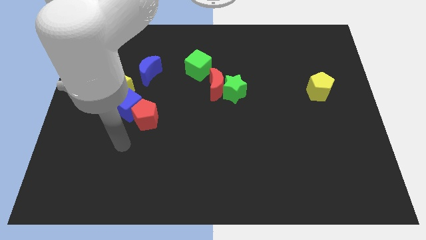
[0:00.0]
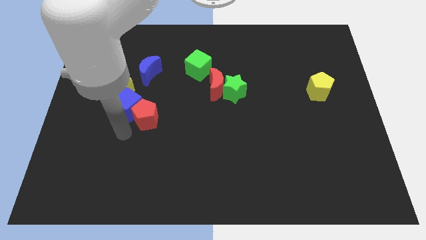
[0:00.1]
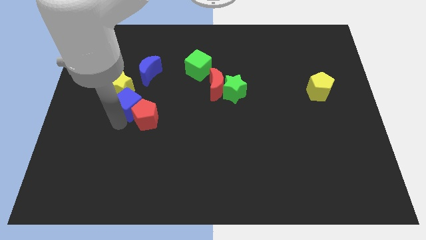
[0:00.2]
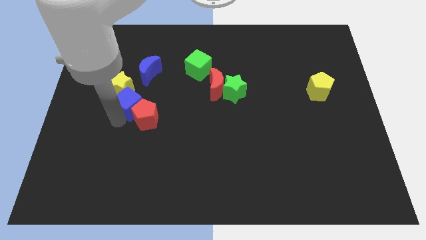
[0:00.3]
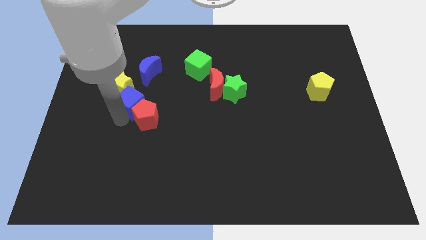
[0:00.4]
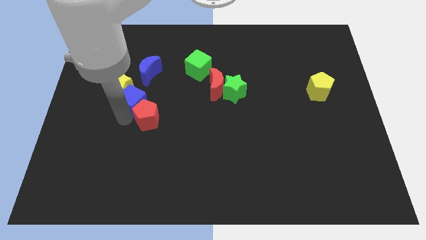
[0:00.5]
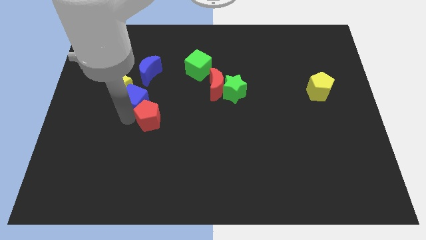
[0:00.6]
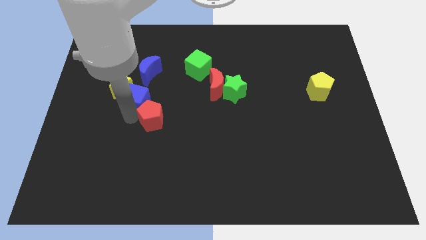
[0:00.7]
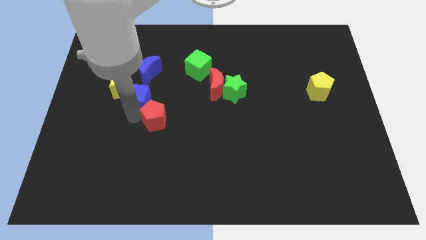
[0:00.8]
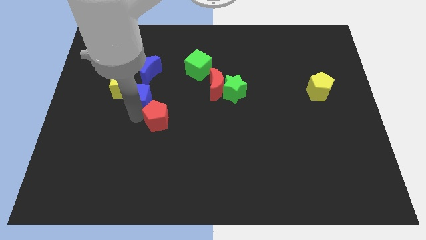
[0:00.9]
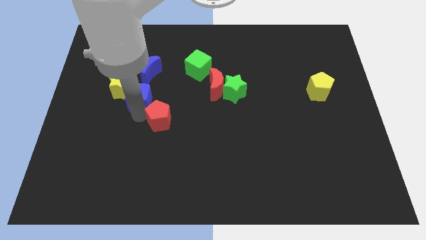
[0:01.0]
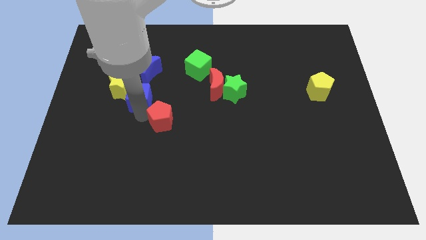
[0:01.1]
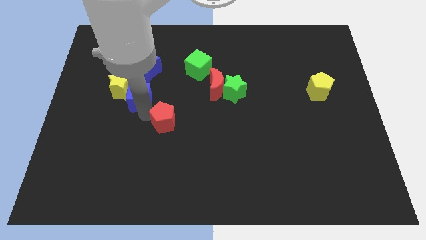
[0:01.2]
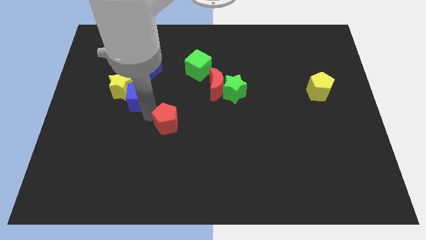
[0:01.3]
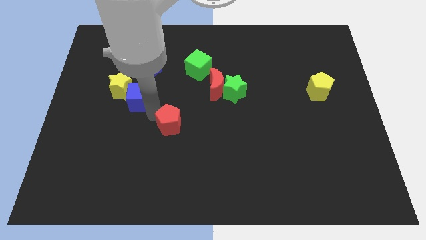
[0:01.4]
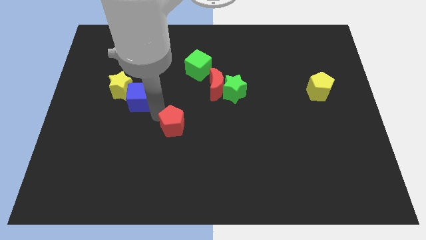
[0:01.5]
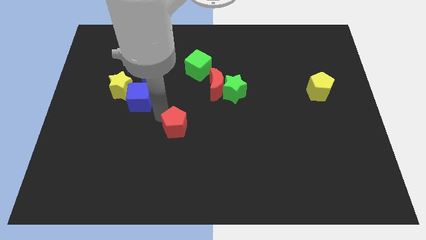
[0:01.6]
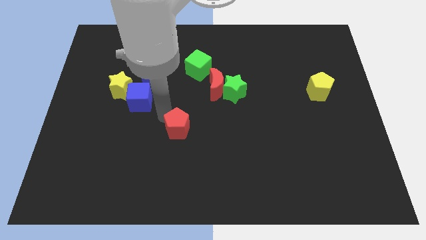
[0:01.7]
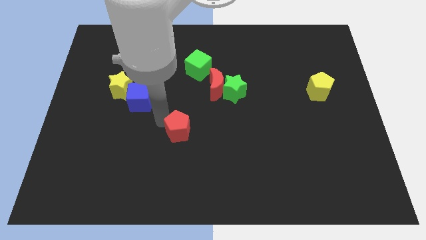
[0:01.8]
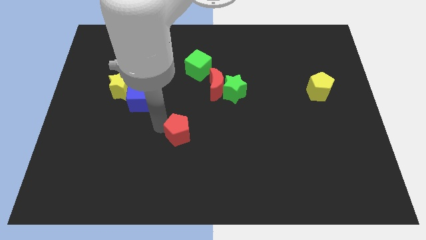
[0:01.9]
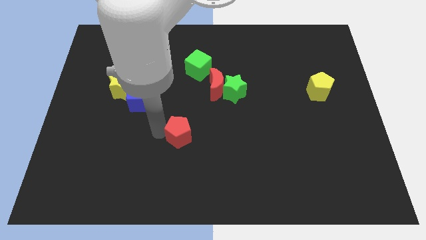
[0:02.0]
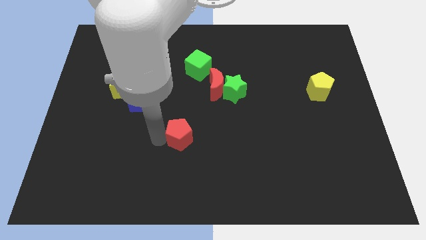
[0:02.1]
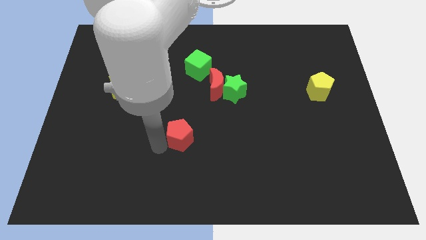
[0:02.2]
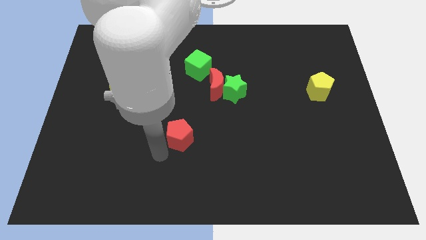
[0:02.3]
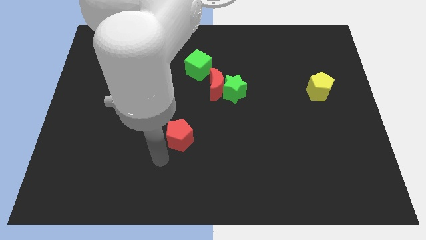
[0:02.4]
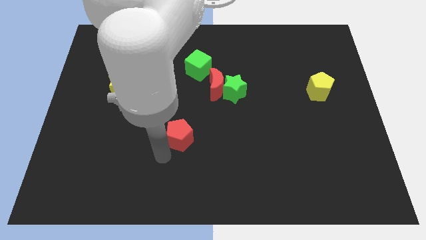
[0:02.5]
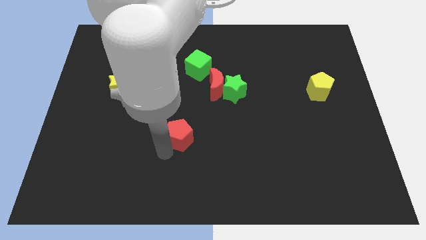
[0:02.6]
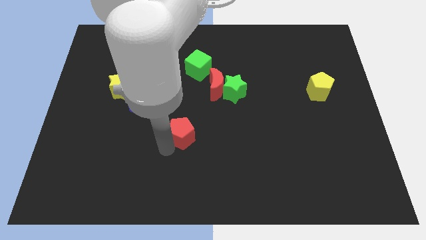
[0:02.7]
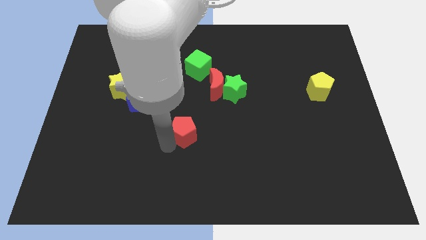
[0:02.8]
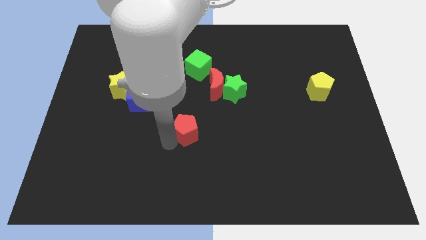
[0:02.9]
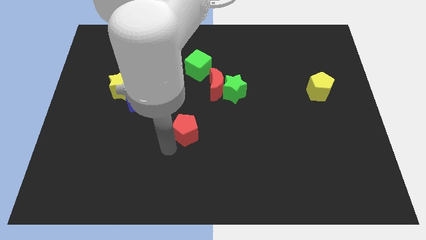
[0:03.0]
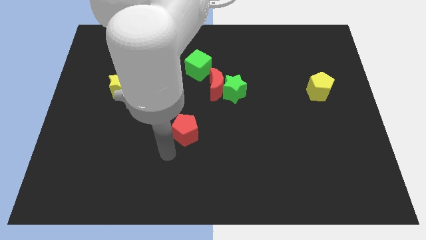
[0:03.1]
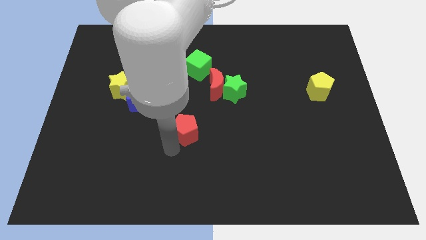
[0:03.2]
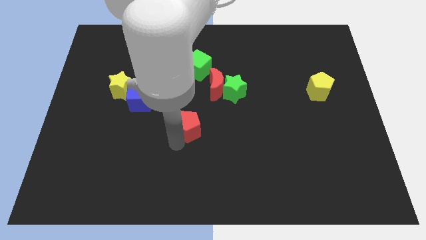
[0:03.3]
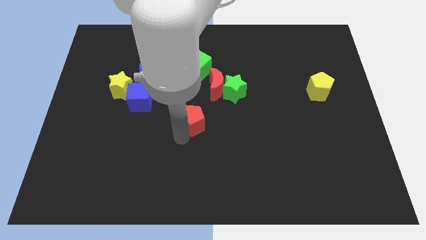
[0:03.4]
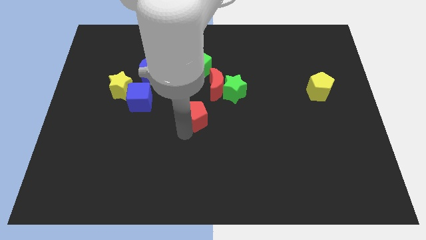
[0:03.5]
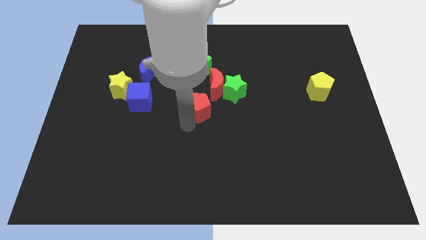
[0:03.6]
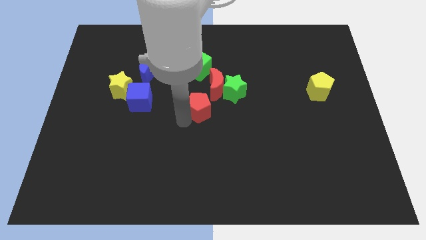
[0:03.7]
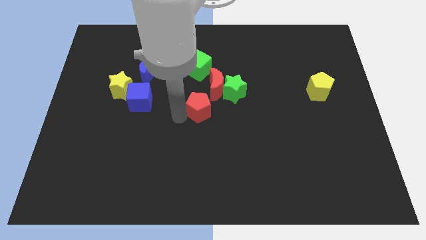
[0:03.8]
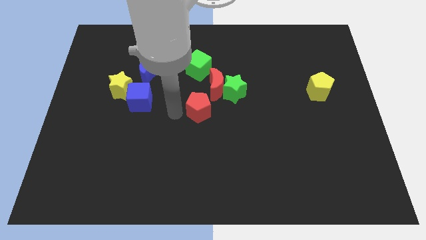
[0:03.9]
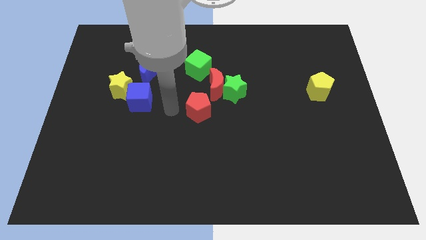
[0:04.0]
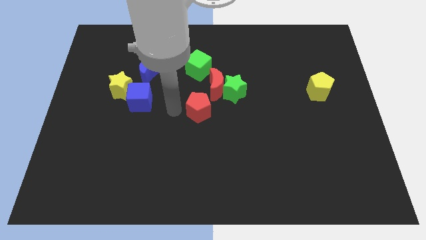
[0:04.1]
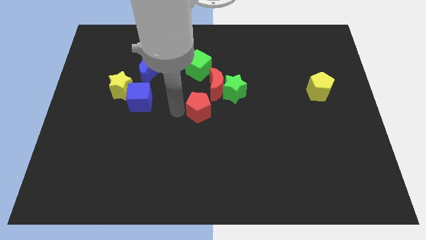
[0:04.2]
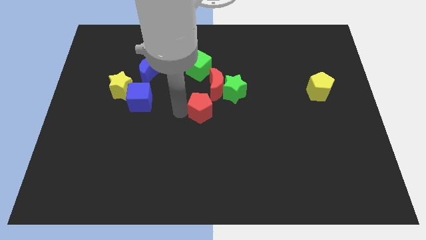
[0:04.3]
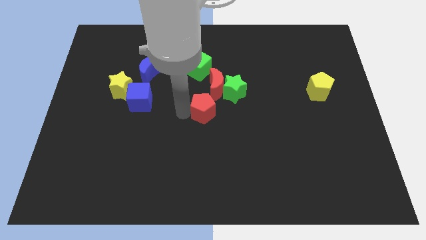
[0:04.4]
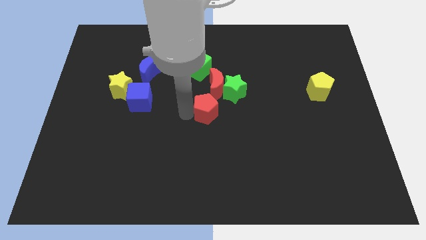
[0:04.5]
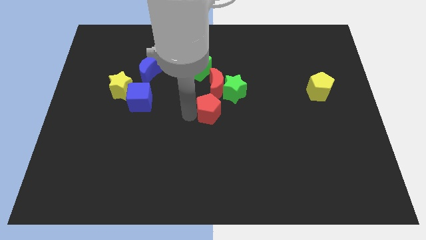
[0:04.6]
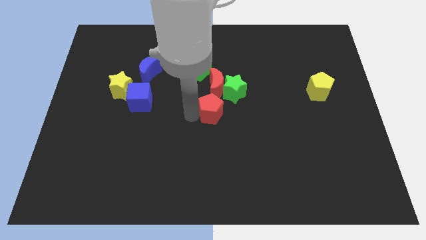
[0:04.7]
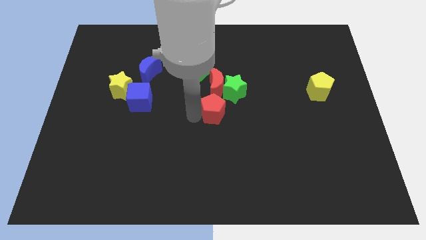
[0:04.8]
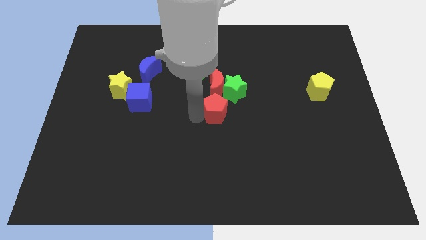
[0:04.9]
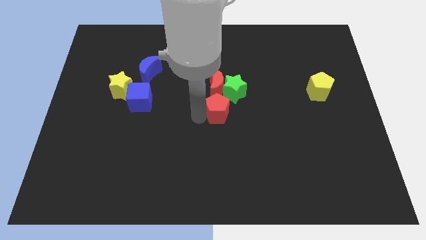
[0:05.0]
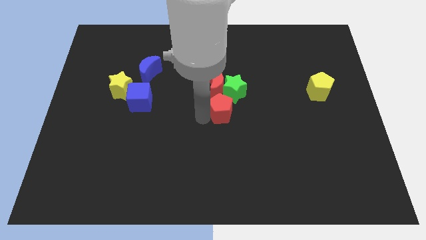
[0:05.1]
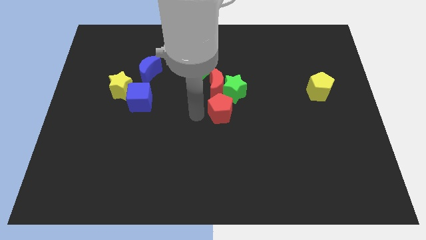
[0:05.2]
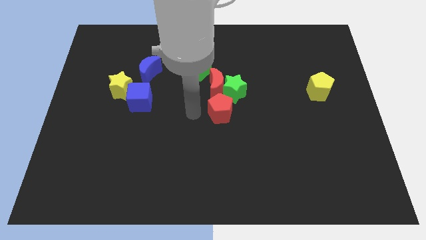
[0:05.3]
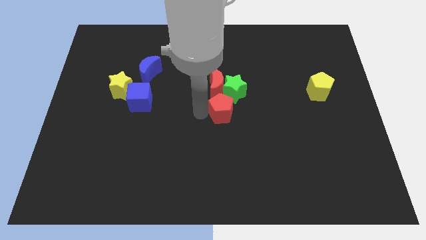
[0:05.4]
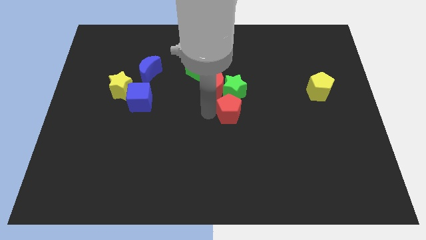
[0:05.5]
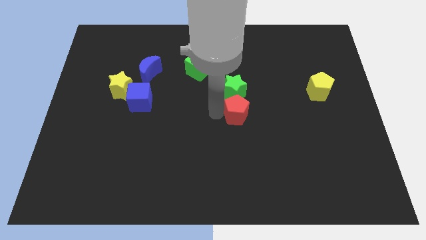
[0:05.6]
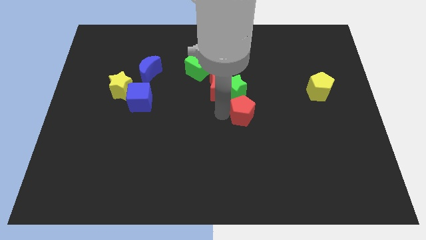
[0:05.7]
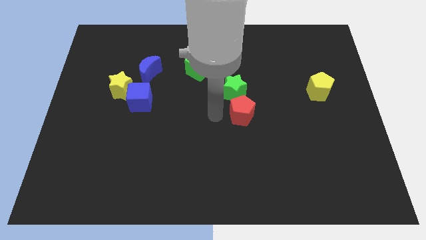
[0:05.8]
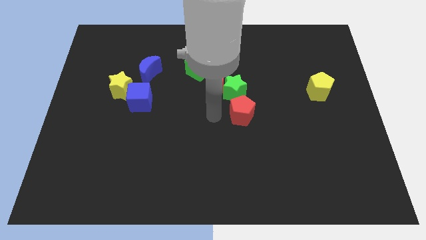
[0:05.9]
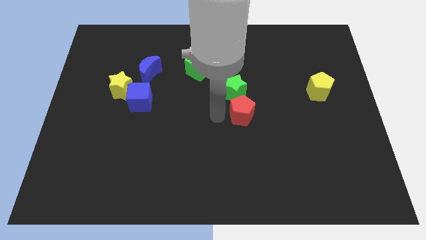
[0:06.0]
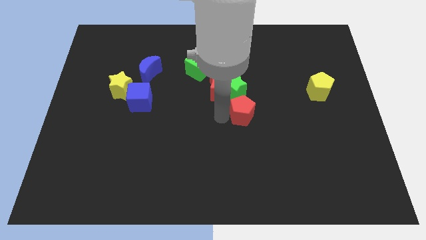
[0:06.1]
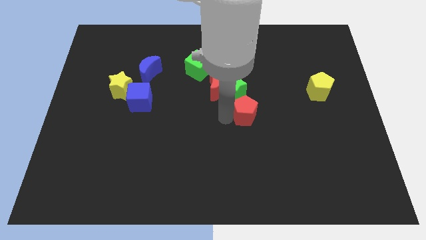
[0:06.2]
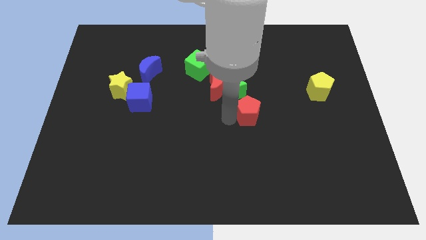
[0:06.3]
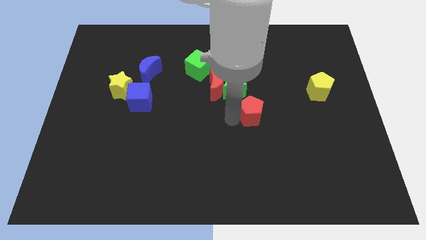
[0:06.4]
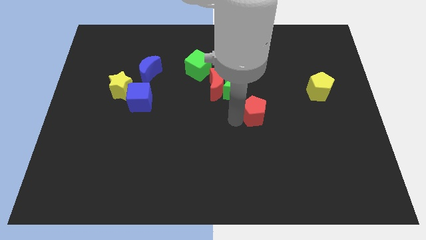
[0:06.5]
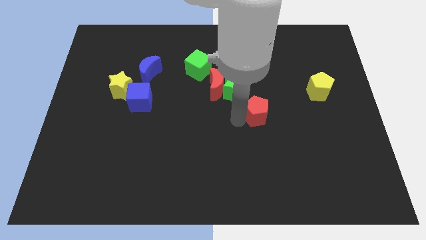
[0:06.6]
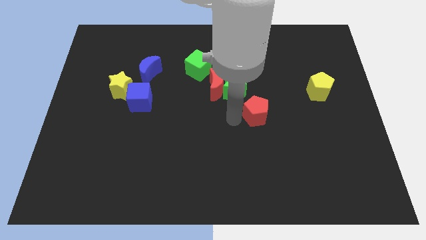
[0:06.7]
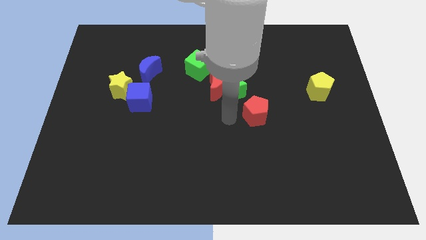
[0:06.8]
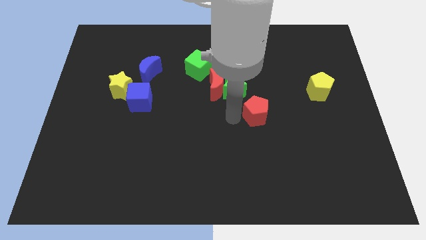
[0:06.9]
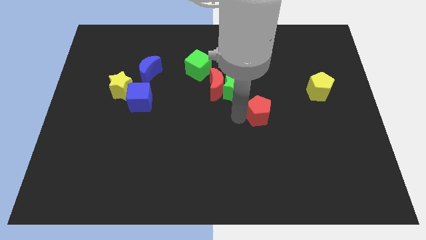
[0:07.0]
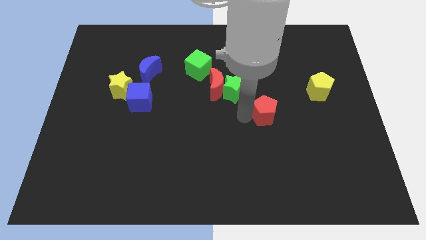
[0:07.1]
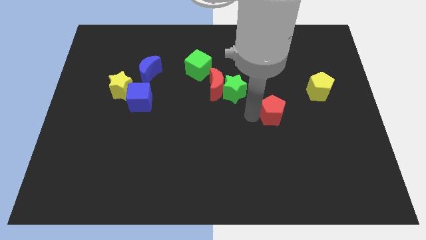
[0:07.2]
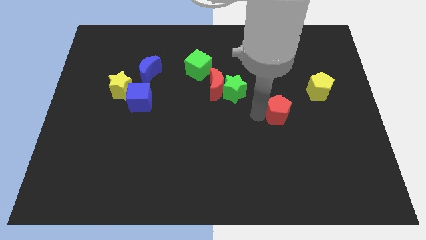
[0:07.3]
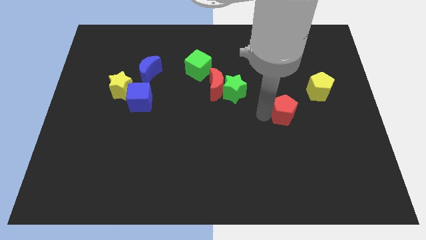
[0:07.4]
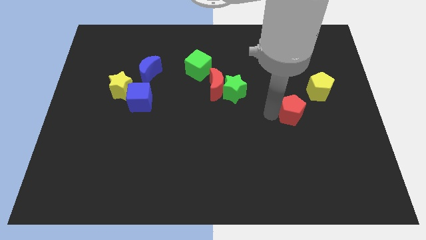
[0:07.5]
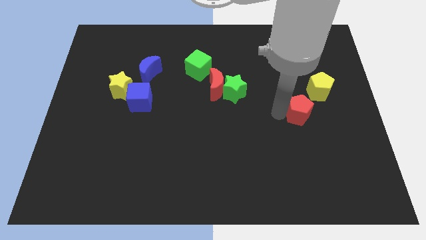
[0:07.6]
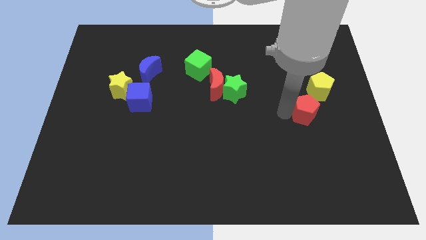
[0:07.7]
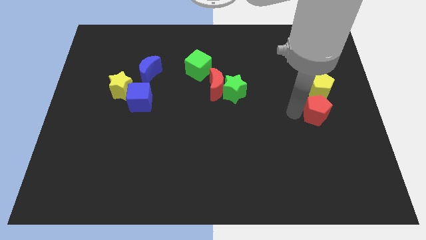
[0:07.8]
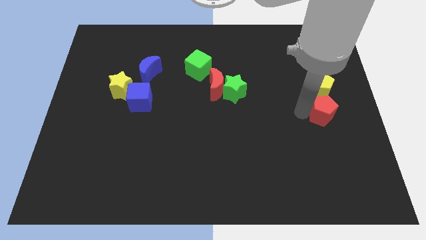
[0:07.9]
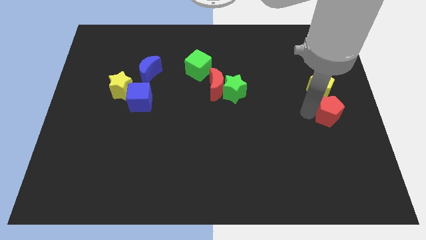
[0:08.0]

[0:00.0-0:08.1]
move the red pentagon to the right side
